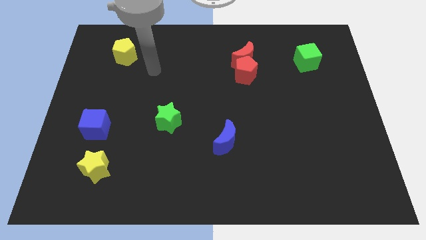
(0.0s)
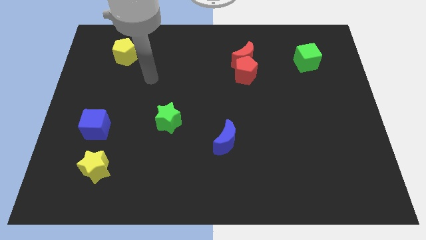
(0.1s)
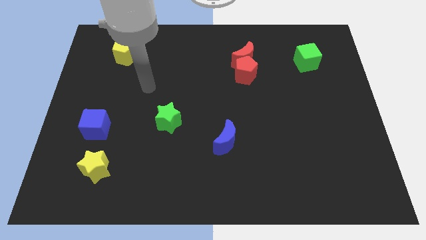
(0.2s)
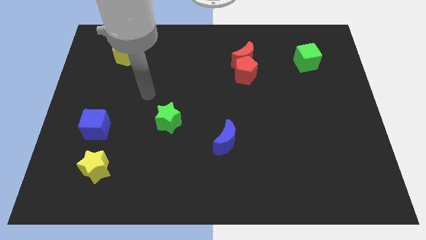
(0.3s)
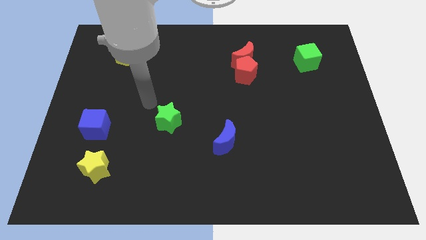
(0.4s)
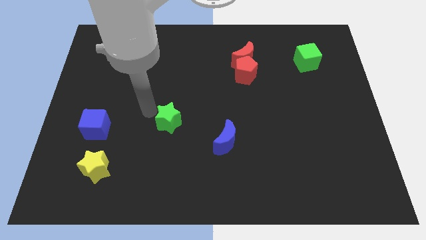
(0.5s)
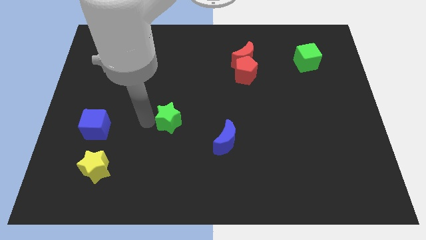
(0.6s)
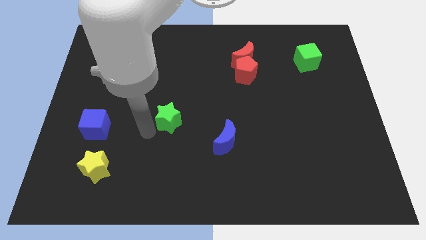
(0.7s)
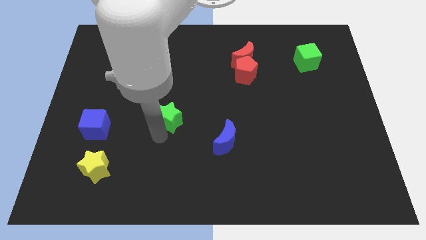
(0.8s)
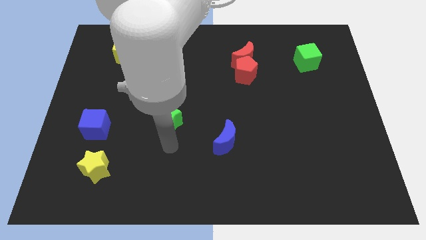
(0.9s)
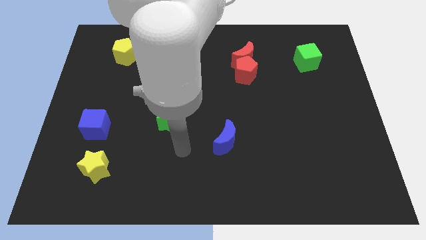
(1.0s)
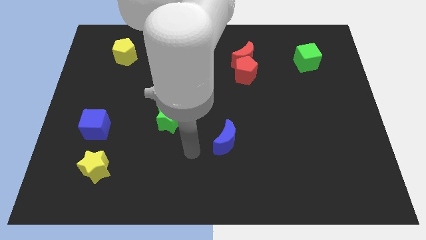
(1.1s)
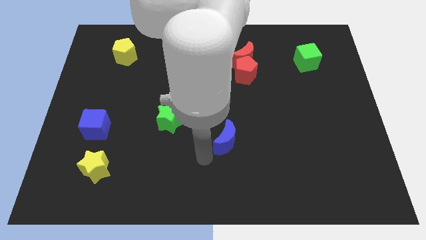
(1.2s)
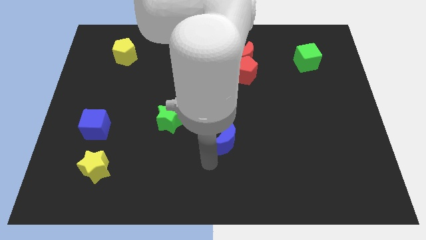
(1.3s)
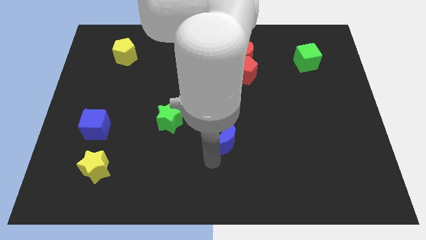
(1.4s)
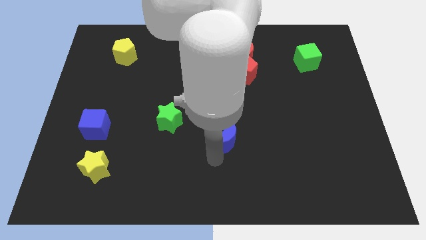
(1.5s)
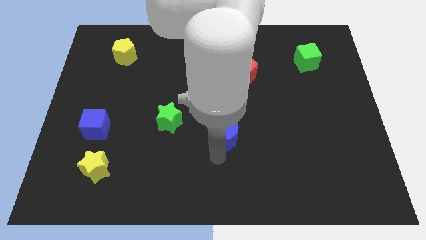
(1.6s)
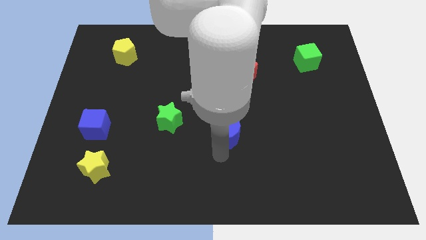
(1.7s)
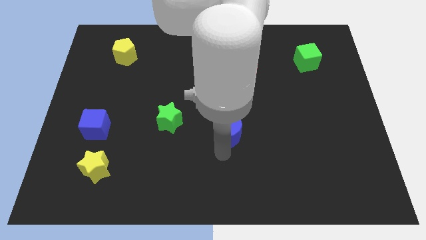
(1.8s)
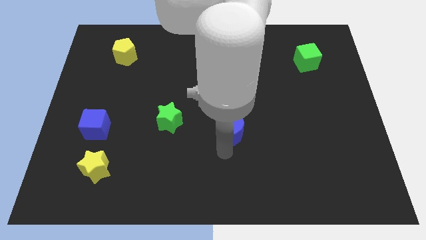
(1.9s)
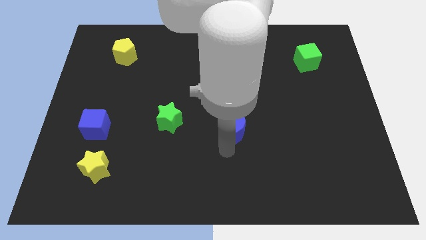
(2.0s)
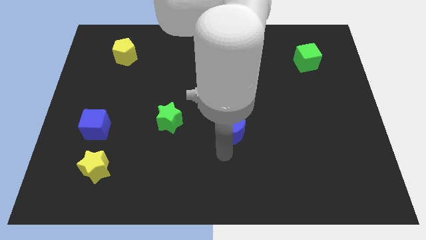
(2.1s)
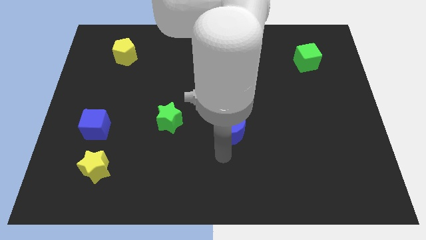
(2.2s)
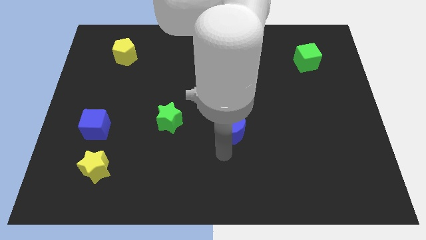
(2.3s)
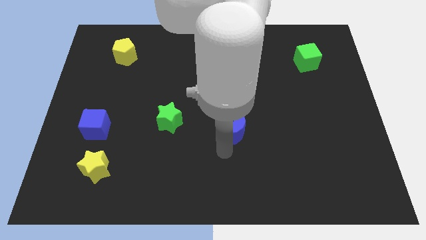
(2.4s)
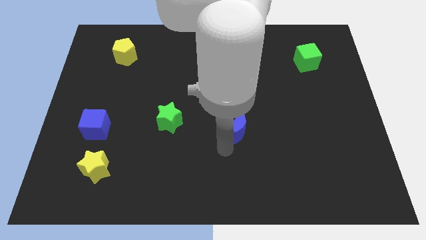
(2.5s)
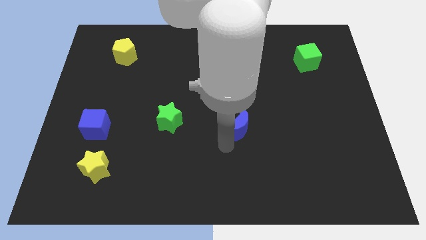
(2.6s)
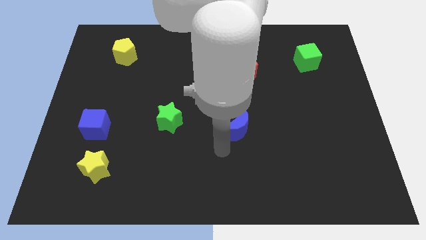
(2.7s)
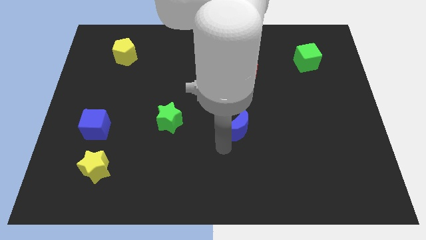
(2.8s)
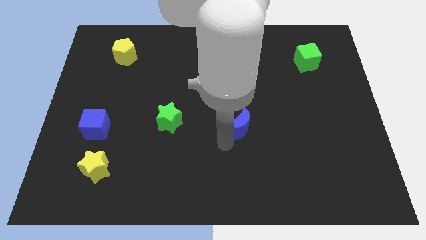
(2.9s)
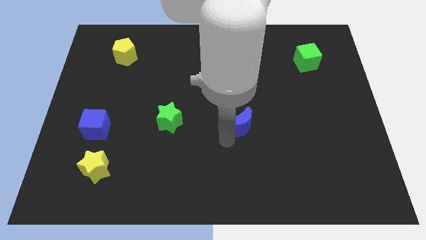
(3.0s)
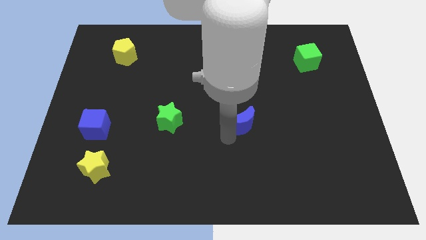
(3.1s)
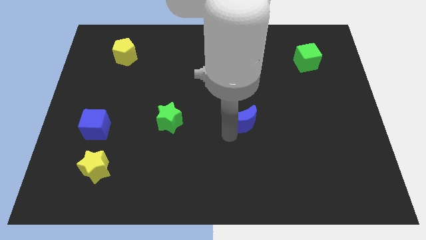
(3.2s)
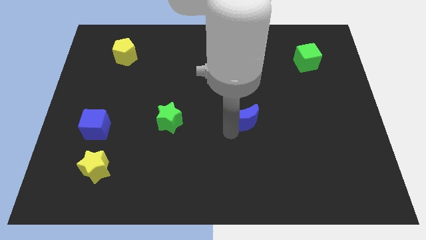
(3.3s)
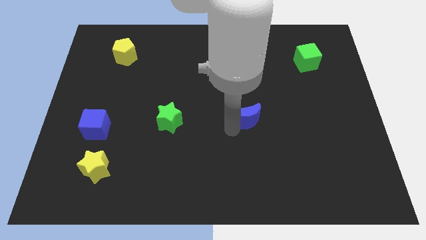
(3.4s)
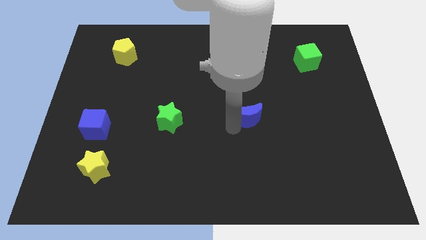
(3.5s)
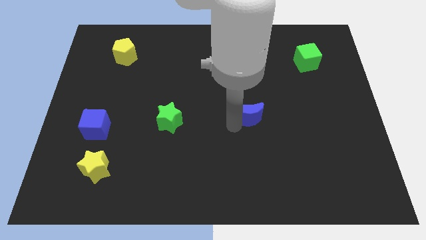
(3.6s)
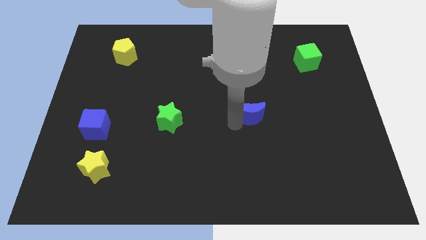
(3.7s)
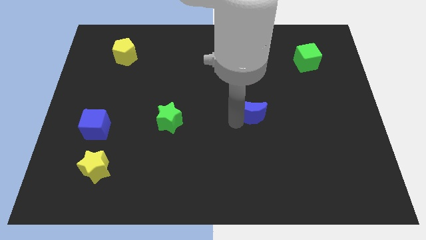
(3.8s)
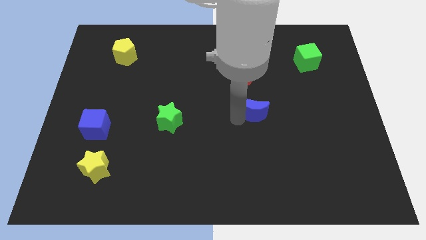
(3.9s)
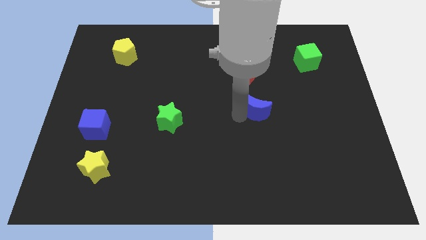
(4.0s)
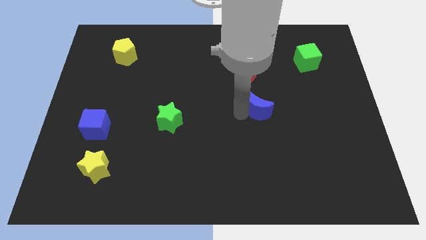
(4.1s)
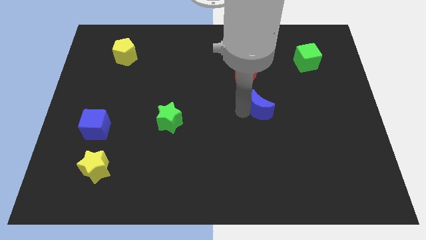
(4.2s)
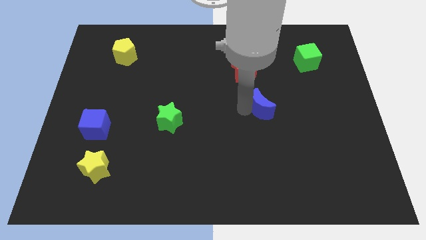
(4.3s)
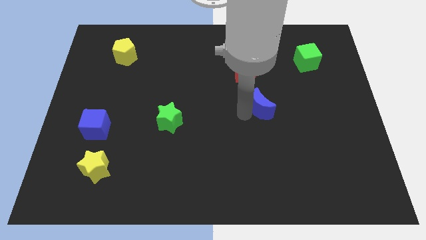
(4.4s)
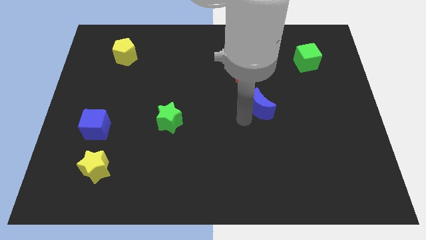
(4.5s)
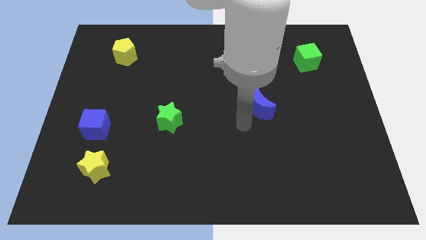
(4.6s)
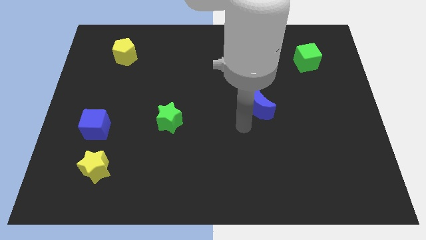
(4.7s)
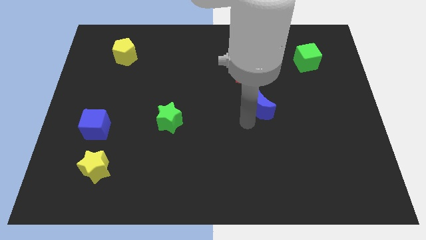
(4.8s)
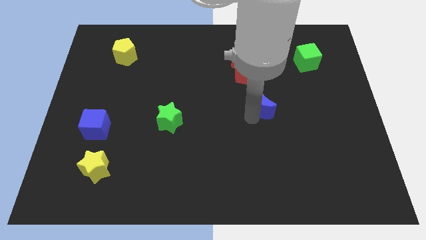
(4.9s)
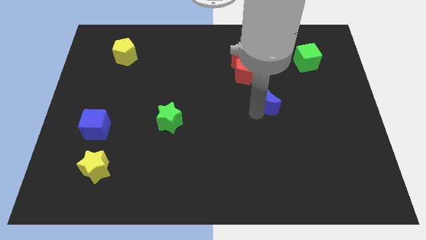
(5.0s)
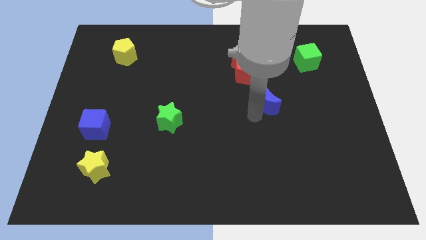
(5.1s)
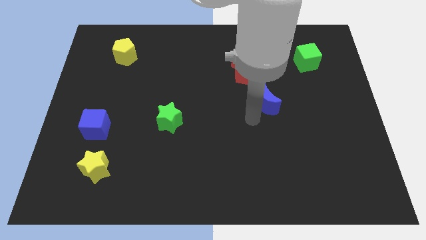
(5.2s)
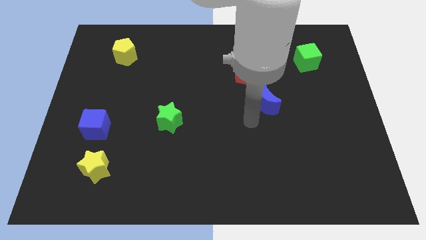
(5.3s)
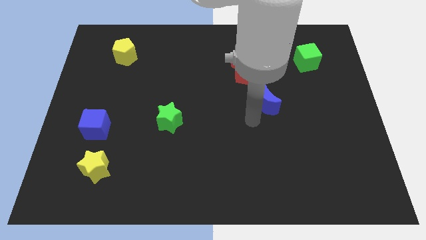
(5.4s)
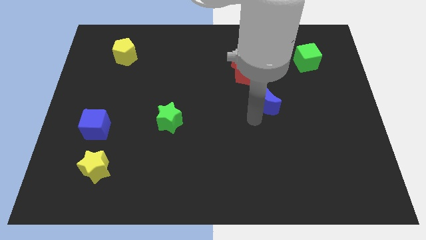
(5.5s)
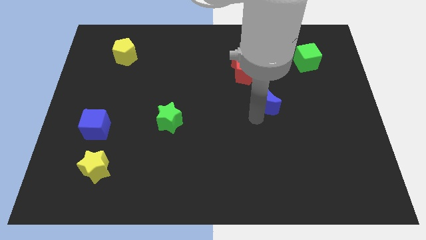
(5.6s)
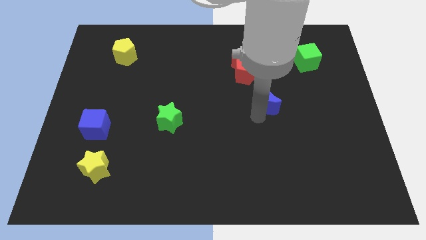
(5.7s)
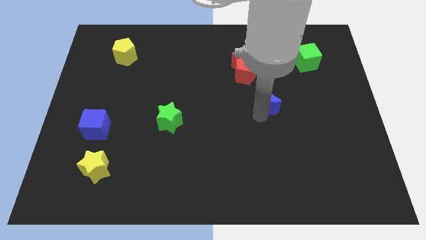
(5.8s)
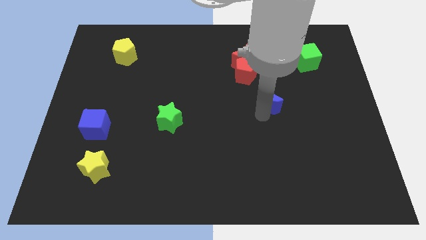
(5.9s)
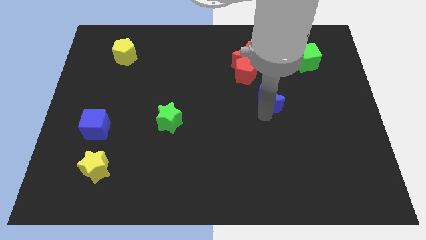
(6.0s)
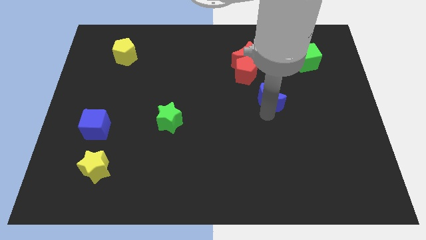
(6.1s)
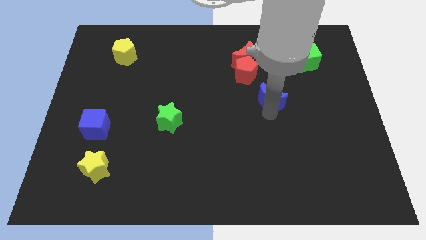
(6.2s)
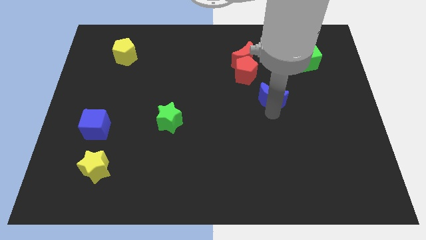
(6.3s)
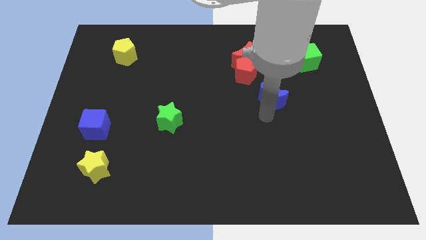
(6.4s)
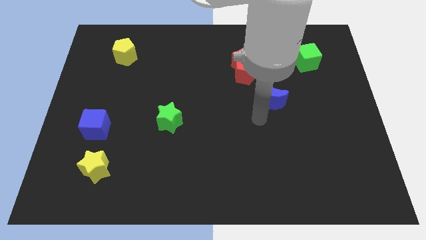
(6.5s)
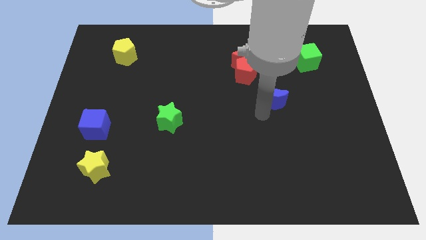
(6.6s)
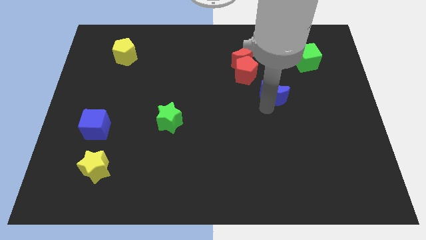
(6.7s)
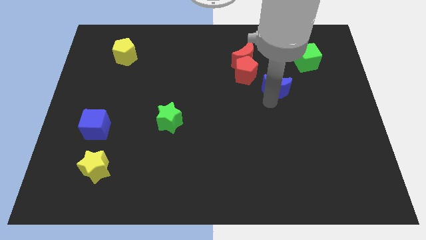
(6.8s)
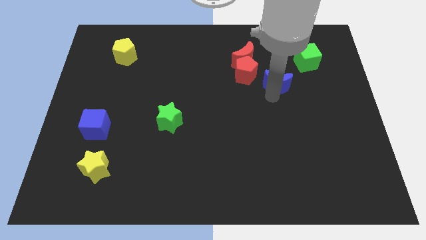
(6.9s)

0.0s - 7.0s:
move the blue moon diagonally down and to the left of the green cube

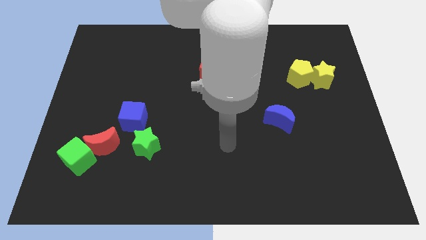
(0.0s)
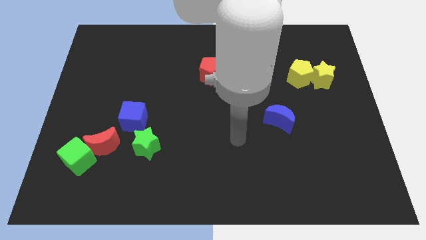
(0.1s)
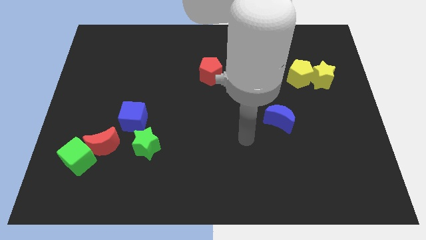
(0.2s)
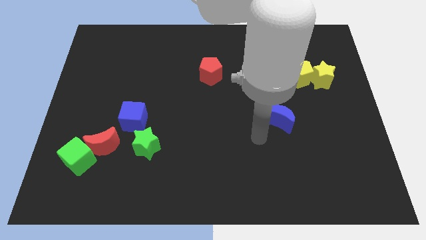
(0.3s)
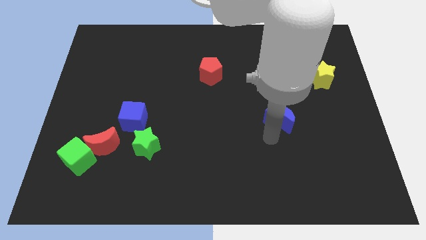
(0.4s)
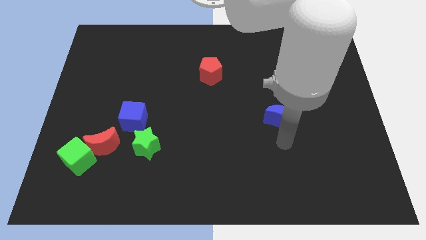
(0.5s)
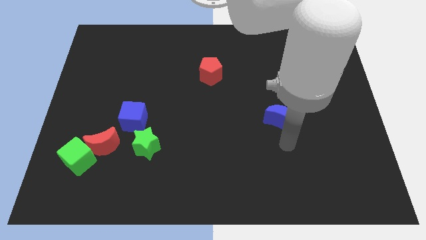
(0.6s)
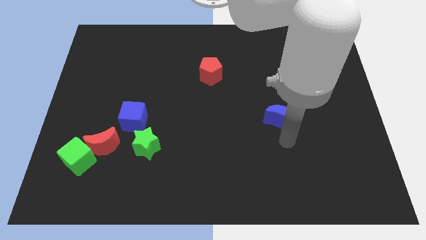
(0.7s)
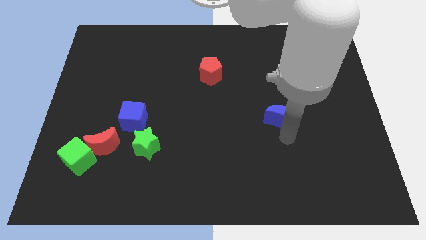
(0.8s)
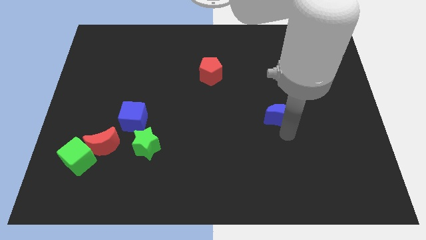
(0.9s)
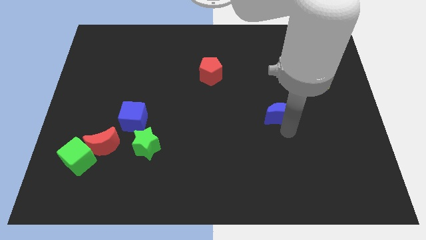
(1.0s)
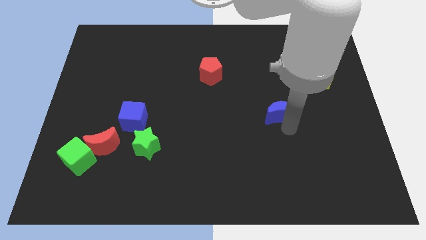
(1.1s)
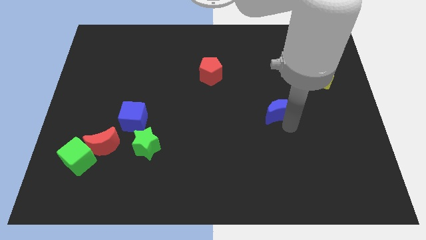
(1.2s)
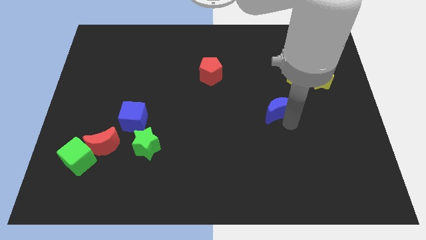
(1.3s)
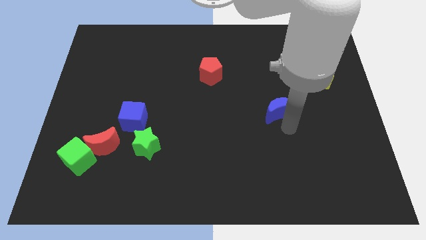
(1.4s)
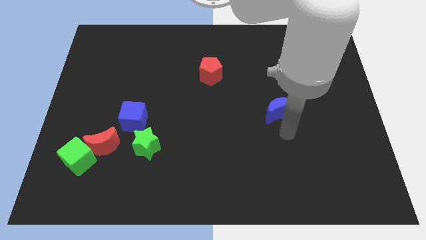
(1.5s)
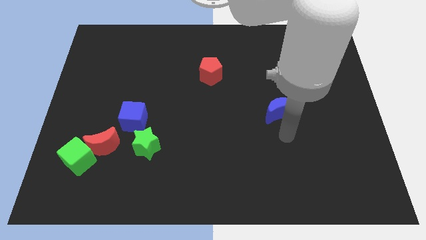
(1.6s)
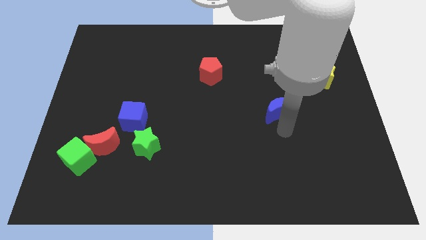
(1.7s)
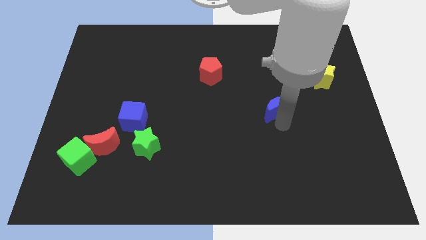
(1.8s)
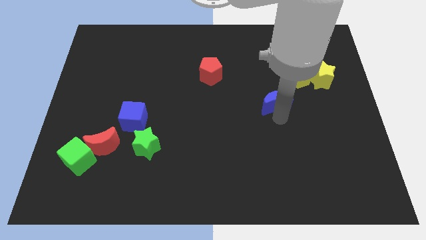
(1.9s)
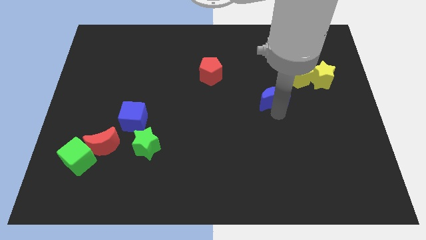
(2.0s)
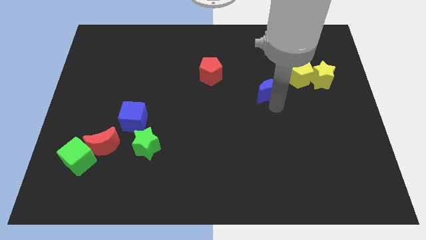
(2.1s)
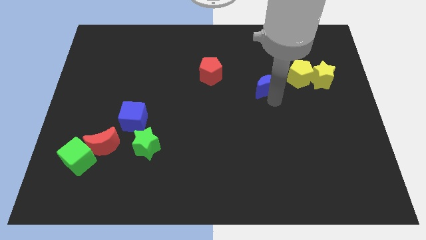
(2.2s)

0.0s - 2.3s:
push the blue moon left of the yellow pentagon
